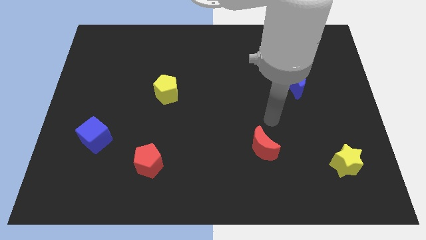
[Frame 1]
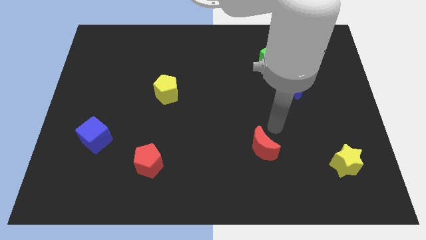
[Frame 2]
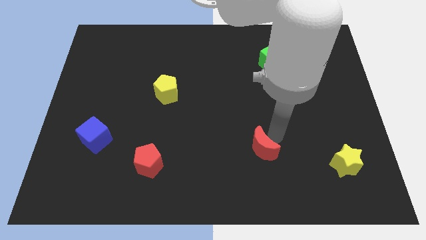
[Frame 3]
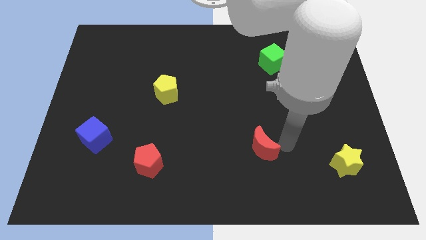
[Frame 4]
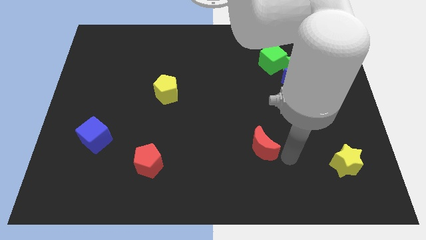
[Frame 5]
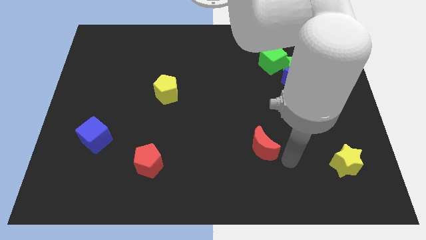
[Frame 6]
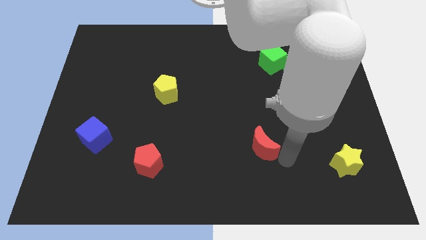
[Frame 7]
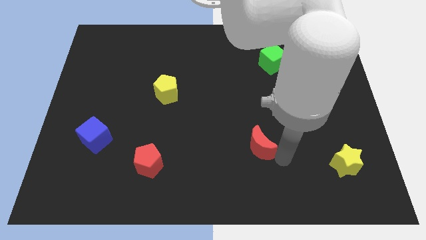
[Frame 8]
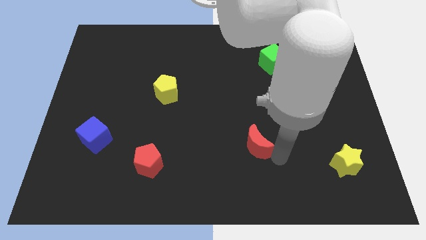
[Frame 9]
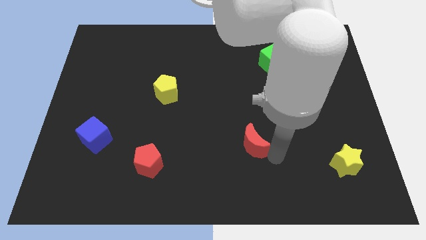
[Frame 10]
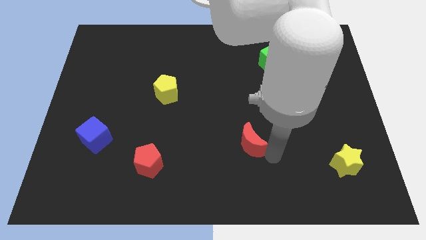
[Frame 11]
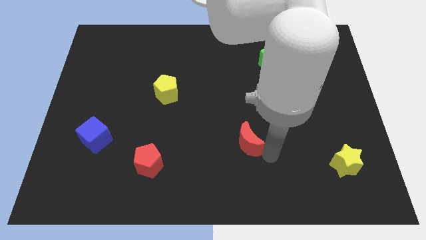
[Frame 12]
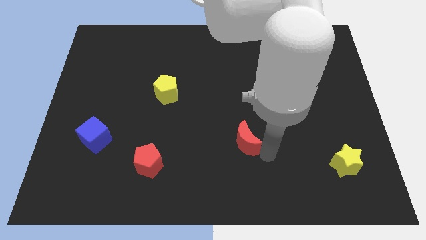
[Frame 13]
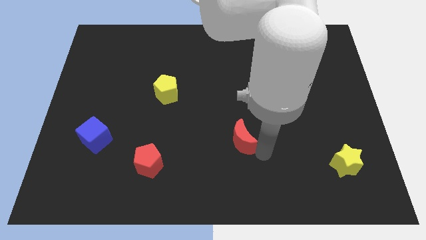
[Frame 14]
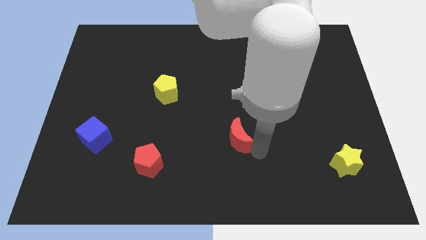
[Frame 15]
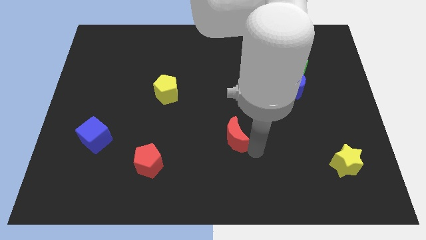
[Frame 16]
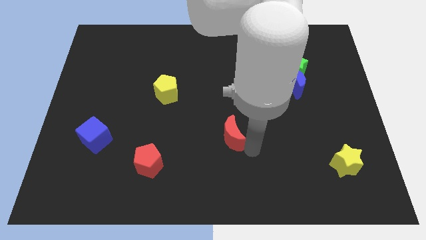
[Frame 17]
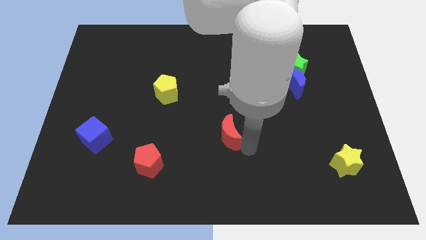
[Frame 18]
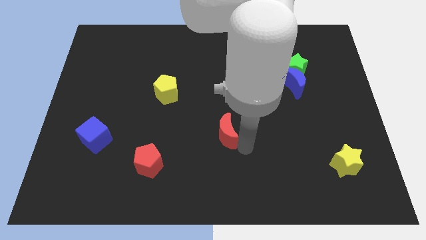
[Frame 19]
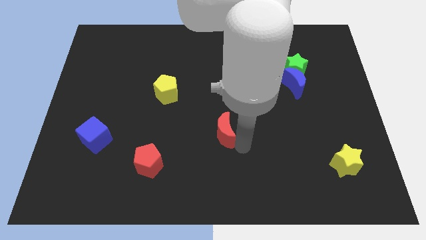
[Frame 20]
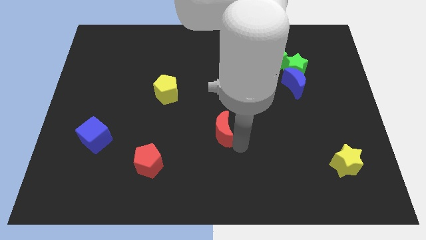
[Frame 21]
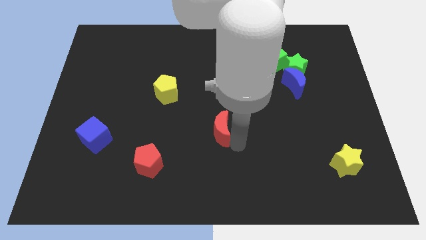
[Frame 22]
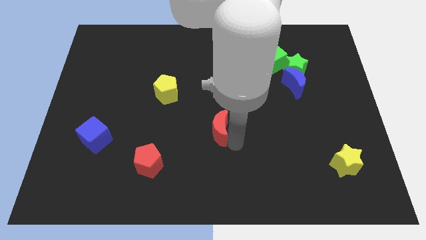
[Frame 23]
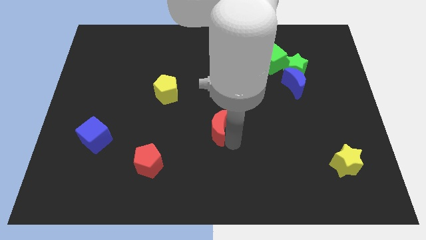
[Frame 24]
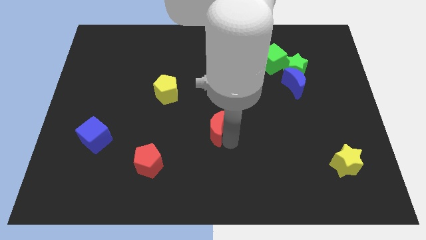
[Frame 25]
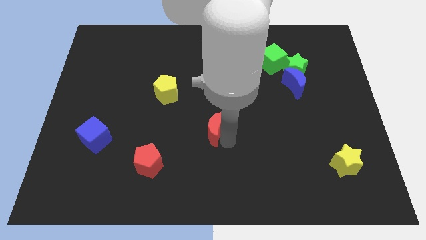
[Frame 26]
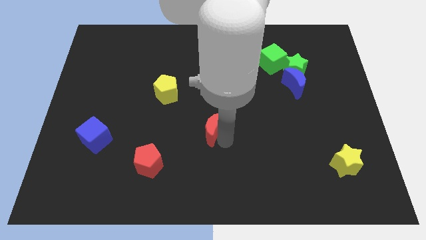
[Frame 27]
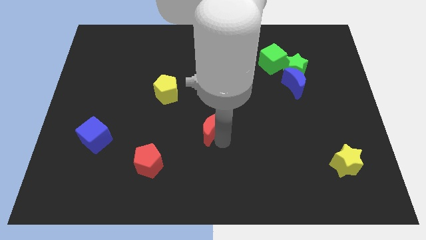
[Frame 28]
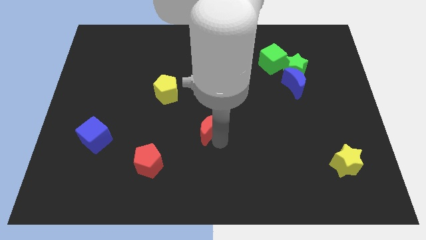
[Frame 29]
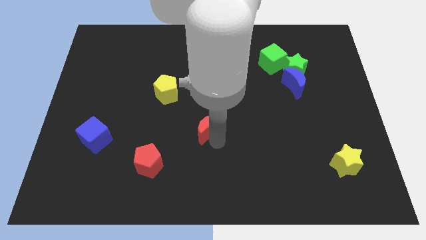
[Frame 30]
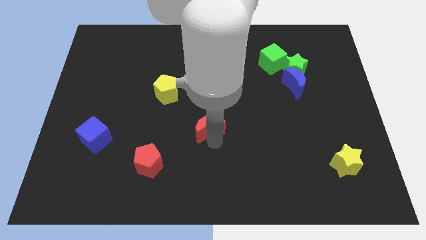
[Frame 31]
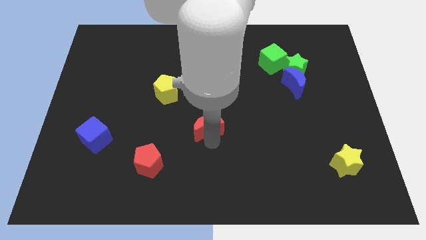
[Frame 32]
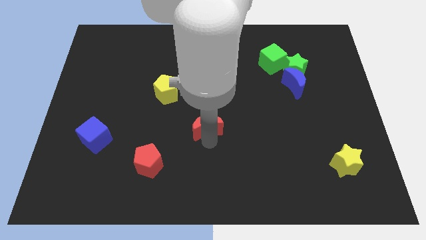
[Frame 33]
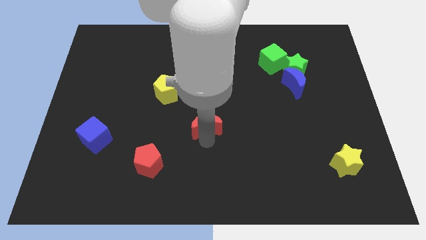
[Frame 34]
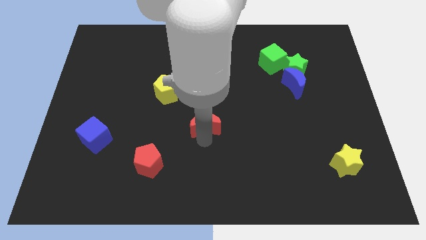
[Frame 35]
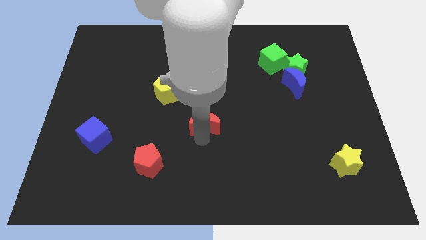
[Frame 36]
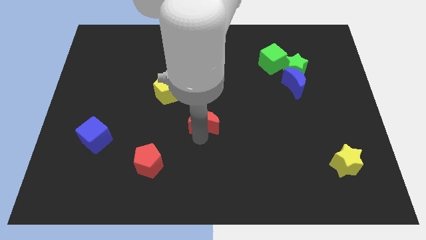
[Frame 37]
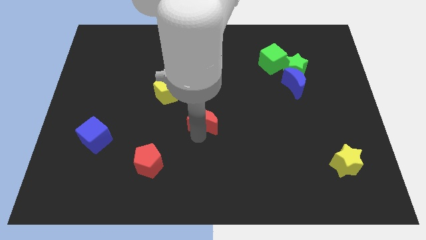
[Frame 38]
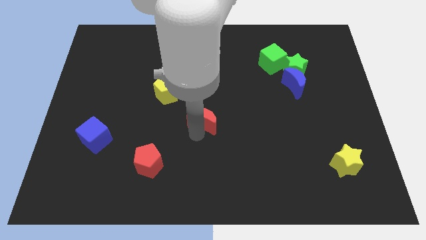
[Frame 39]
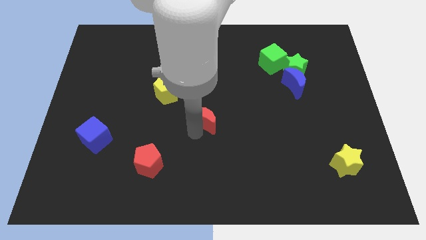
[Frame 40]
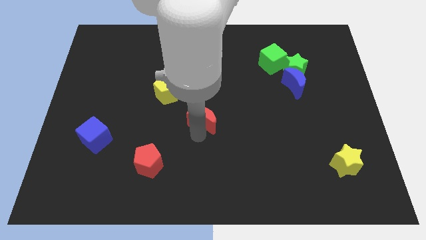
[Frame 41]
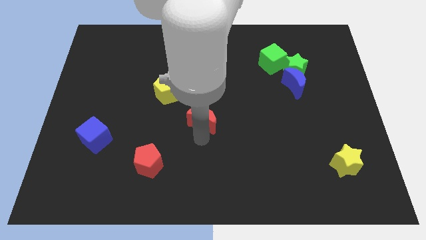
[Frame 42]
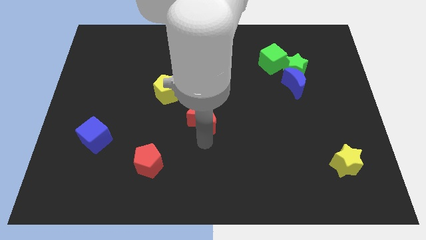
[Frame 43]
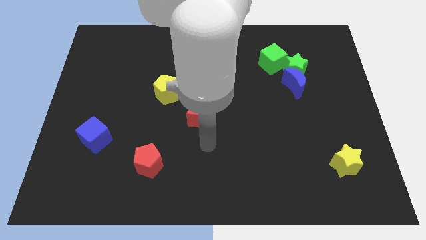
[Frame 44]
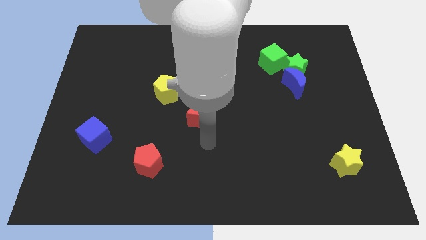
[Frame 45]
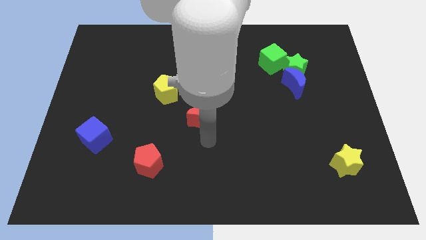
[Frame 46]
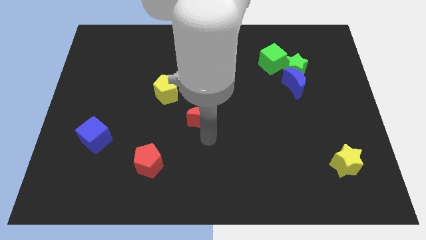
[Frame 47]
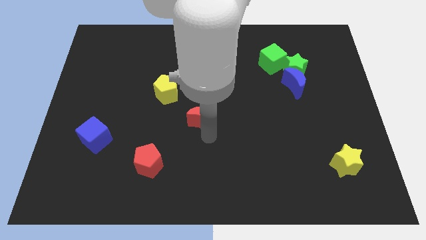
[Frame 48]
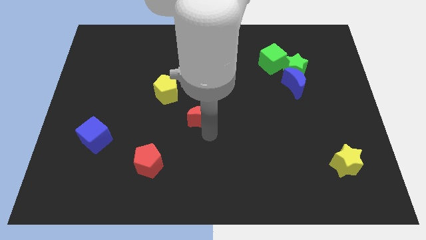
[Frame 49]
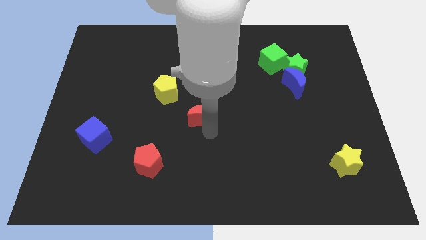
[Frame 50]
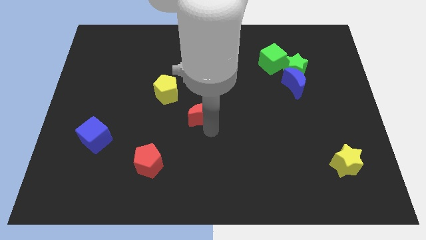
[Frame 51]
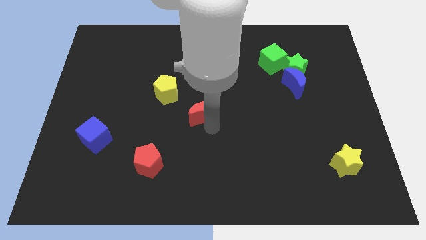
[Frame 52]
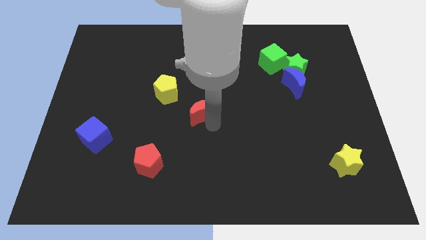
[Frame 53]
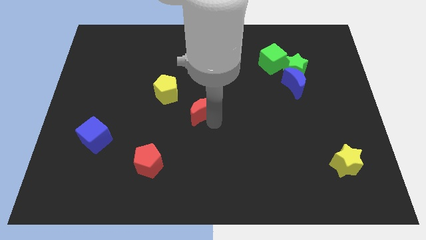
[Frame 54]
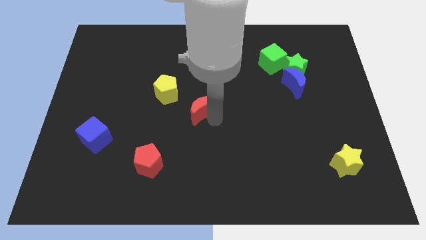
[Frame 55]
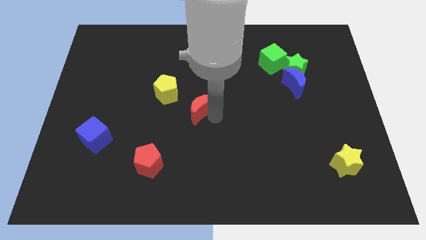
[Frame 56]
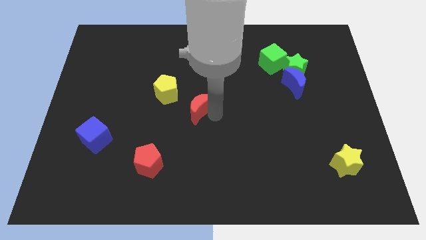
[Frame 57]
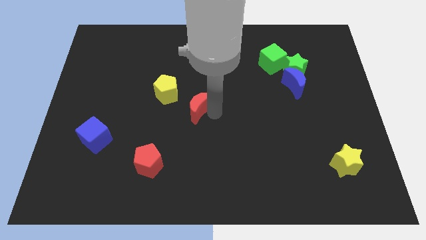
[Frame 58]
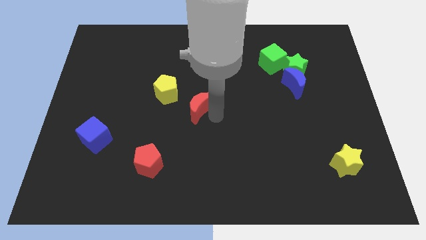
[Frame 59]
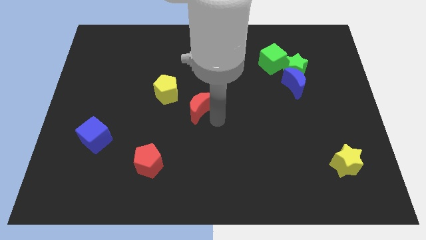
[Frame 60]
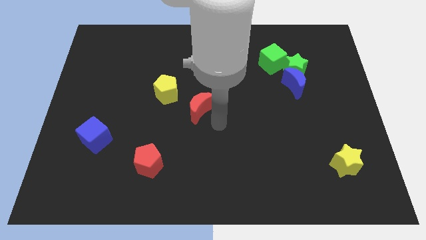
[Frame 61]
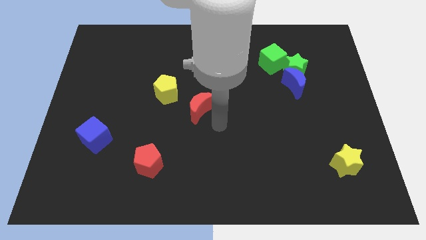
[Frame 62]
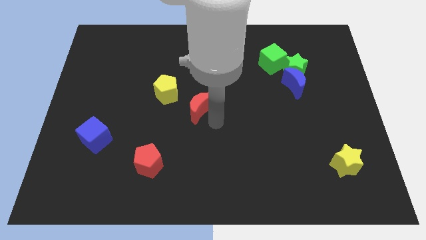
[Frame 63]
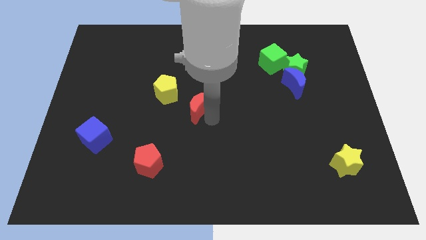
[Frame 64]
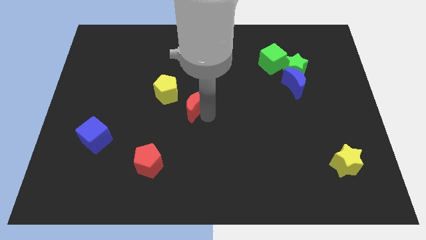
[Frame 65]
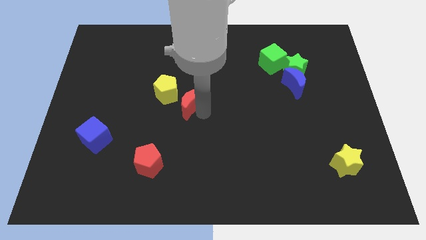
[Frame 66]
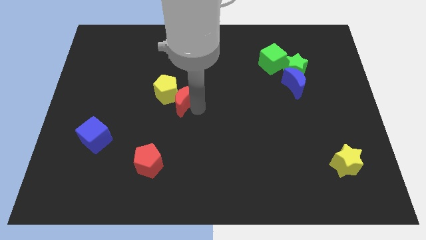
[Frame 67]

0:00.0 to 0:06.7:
move the red moon close to the yellow pentagon

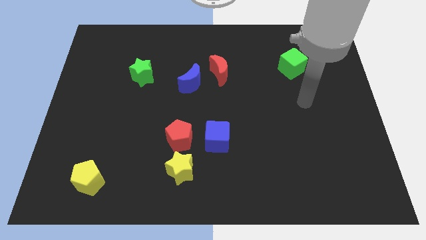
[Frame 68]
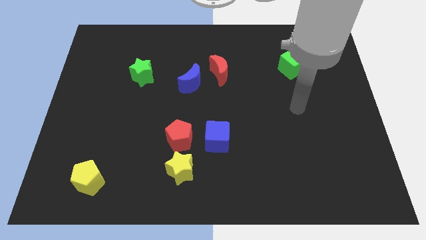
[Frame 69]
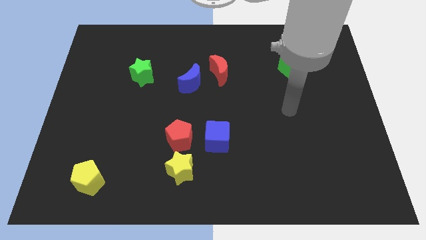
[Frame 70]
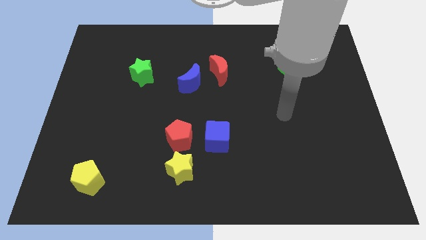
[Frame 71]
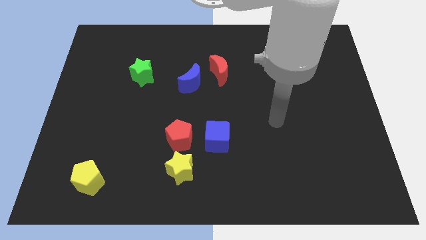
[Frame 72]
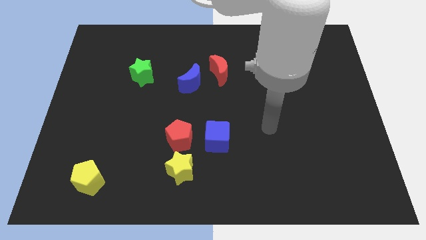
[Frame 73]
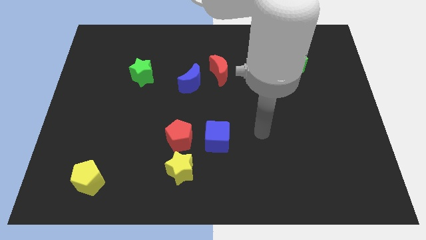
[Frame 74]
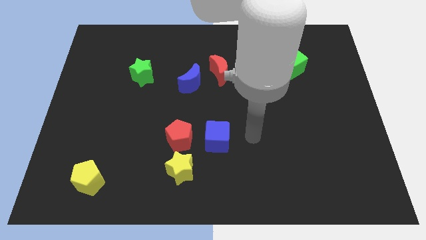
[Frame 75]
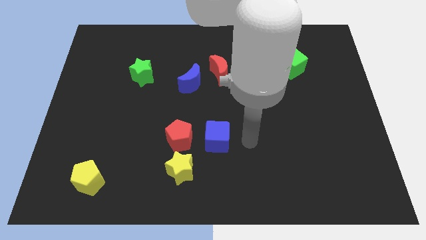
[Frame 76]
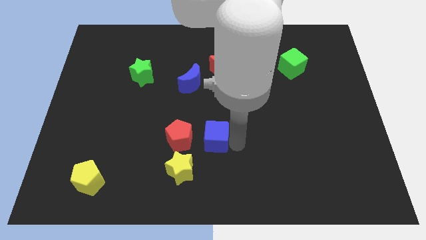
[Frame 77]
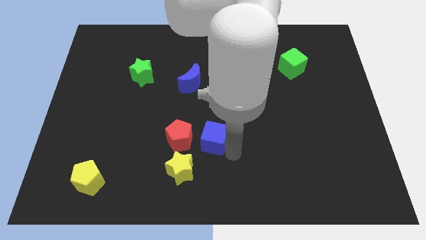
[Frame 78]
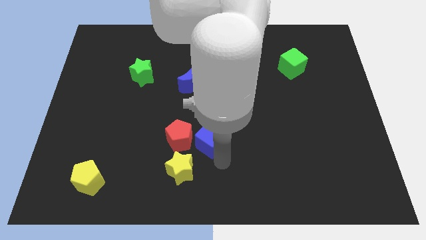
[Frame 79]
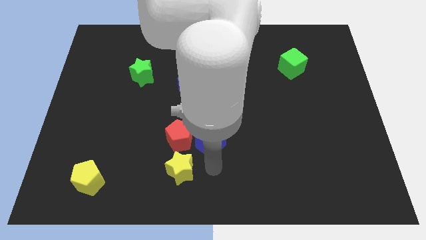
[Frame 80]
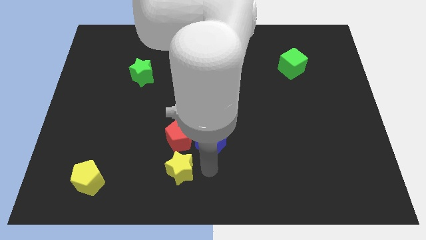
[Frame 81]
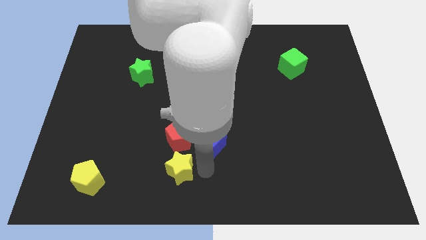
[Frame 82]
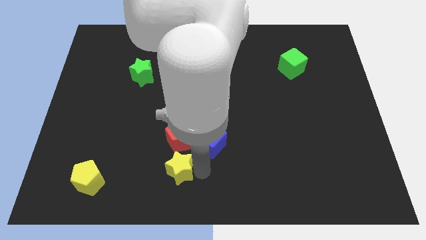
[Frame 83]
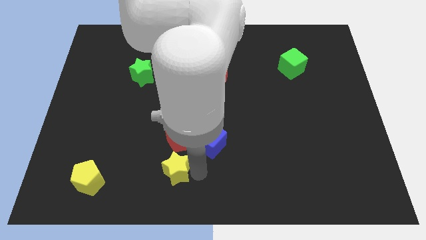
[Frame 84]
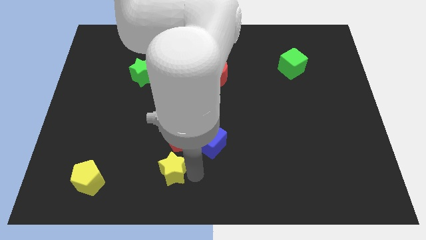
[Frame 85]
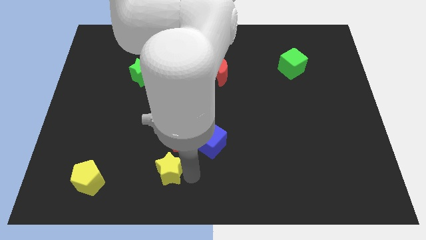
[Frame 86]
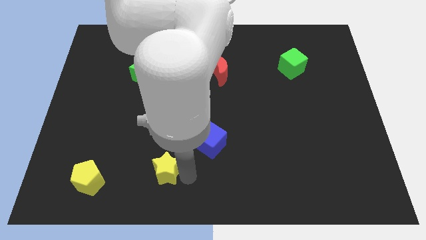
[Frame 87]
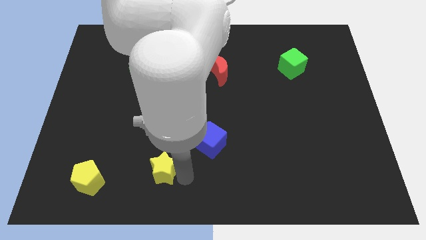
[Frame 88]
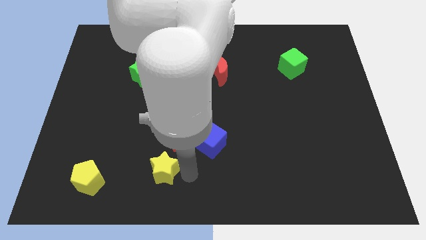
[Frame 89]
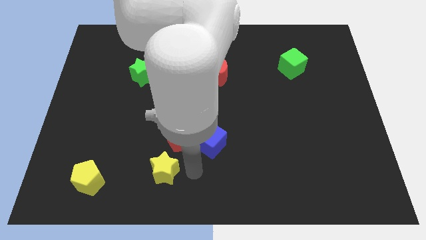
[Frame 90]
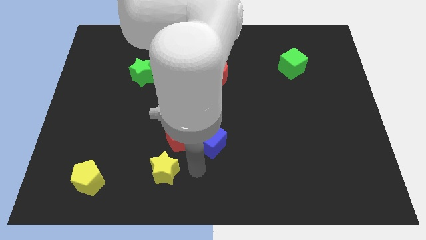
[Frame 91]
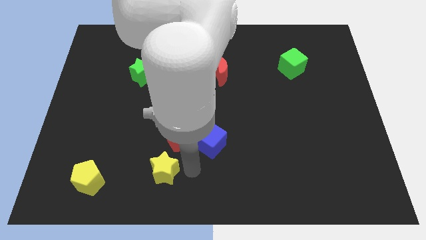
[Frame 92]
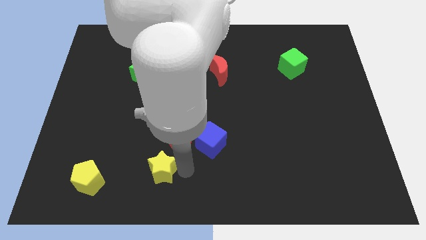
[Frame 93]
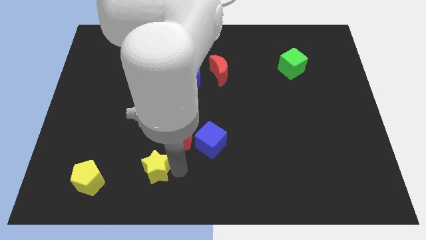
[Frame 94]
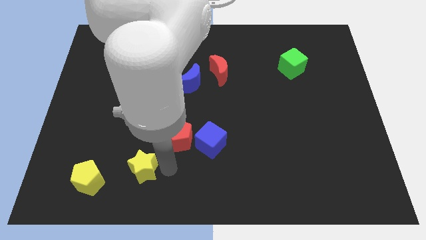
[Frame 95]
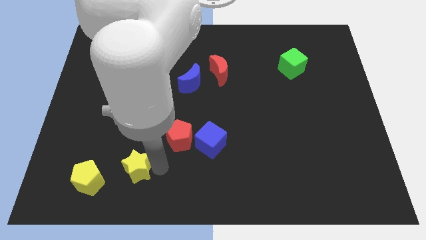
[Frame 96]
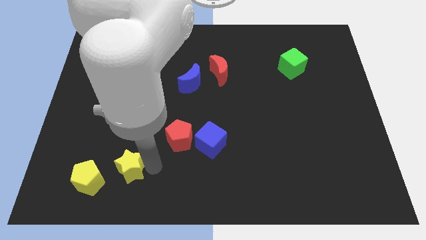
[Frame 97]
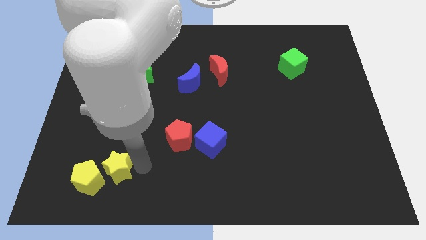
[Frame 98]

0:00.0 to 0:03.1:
push the yellow star to the yellow pentagon
